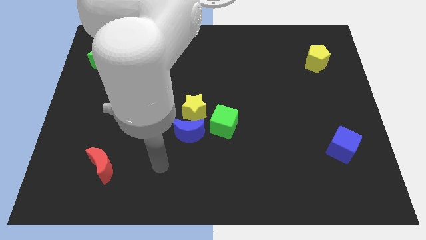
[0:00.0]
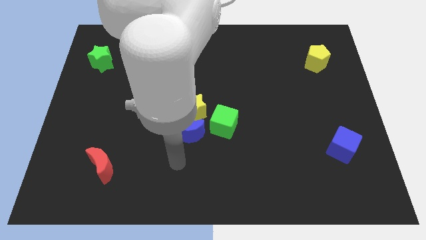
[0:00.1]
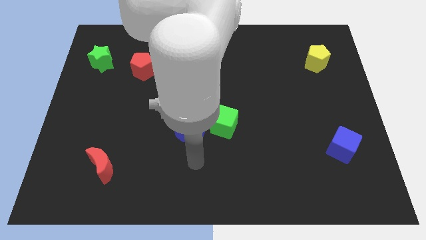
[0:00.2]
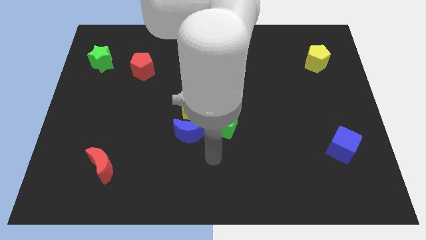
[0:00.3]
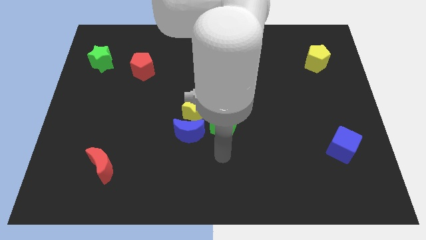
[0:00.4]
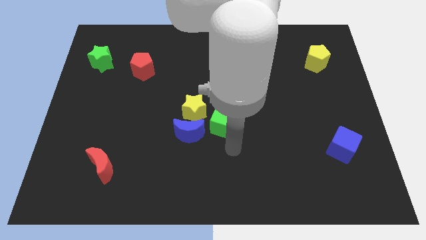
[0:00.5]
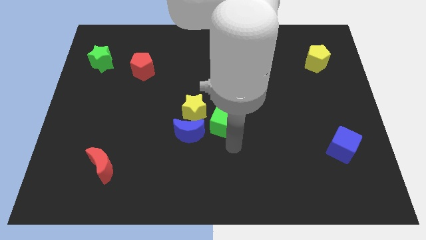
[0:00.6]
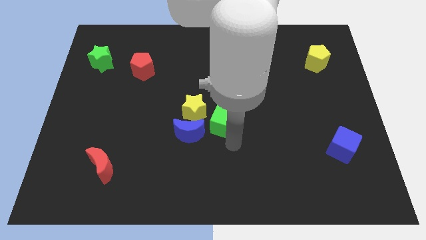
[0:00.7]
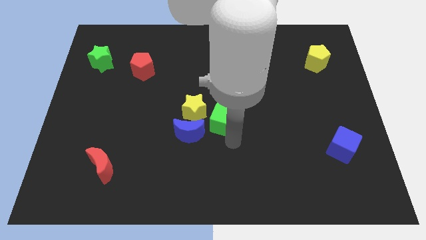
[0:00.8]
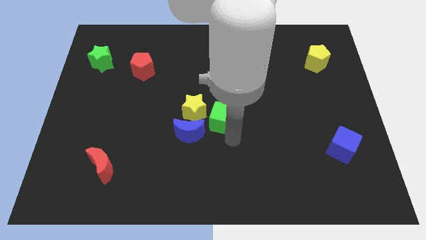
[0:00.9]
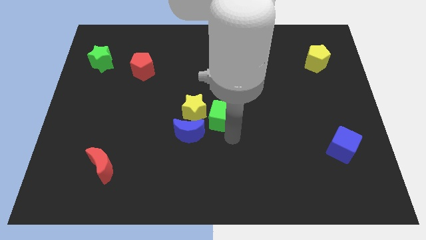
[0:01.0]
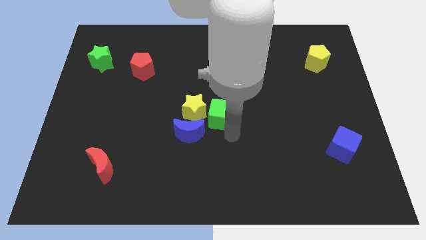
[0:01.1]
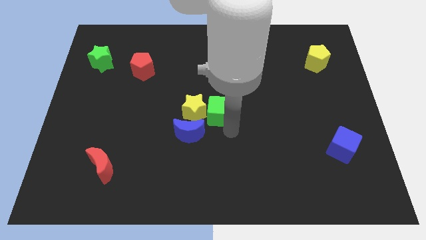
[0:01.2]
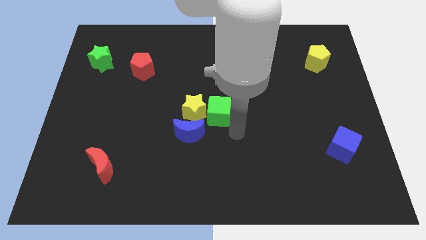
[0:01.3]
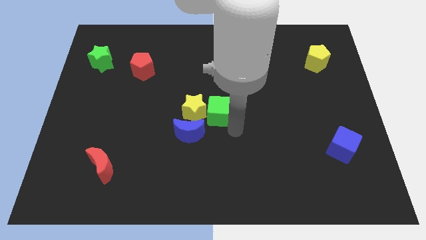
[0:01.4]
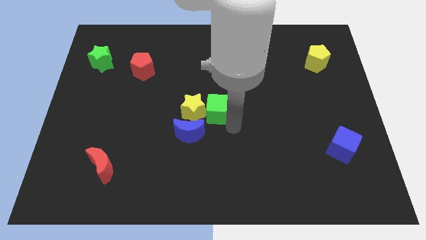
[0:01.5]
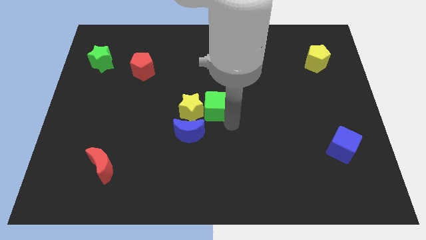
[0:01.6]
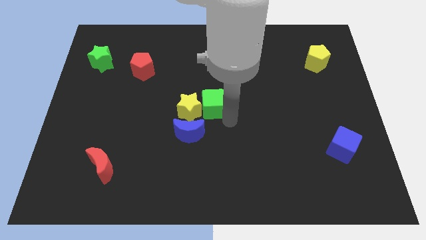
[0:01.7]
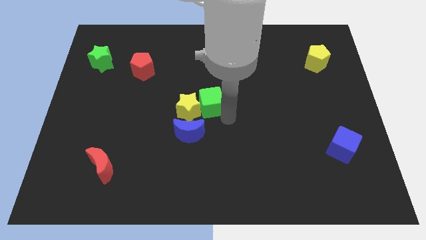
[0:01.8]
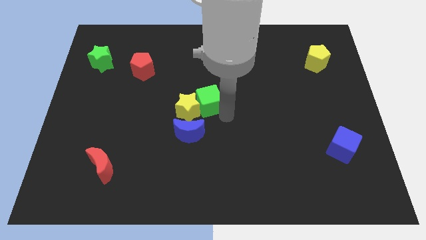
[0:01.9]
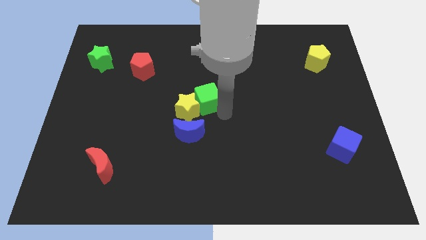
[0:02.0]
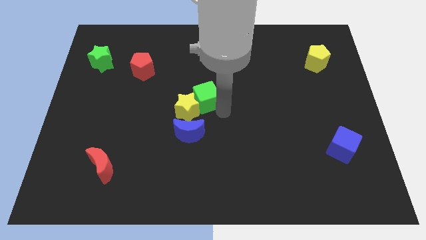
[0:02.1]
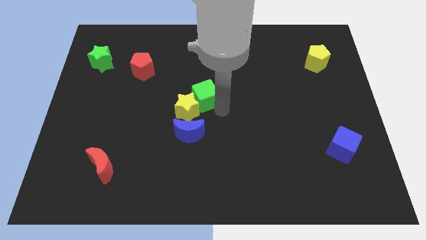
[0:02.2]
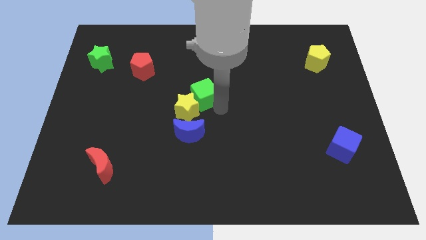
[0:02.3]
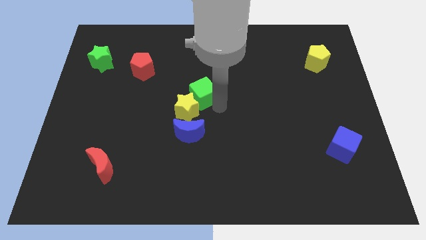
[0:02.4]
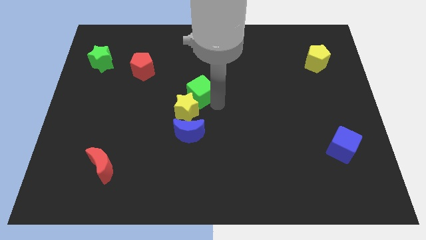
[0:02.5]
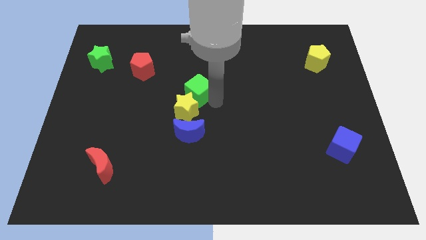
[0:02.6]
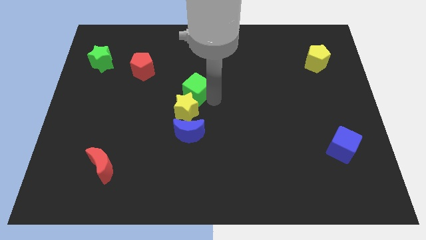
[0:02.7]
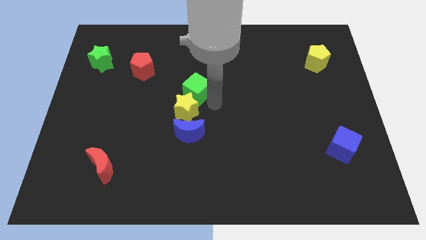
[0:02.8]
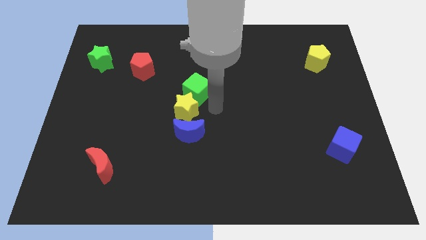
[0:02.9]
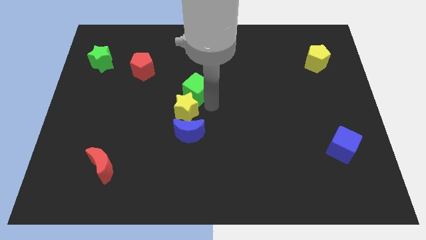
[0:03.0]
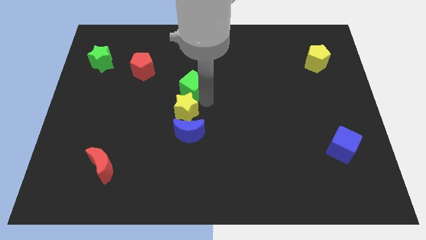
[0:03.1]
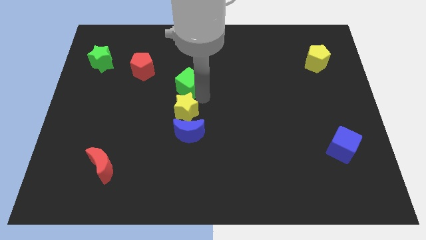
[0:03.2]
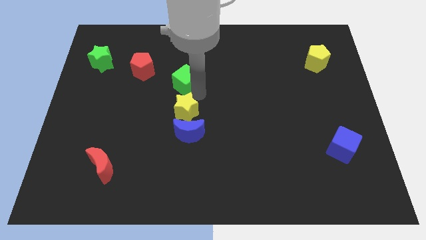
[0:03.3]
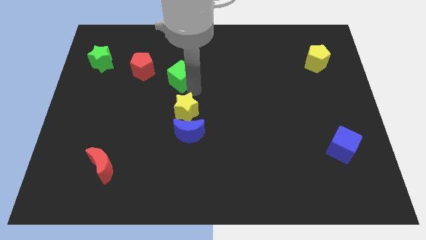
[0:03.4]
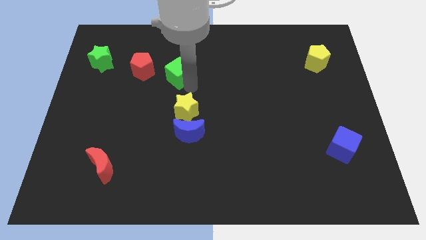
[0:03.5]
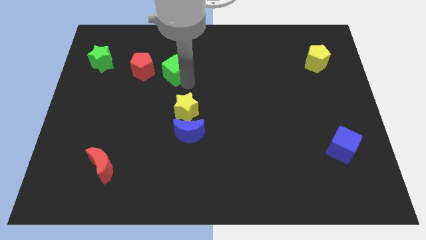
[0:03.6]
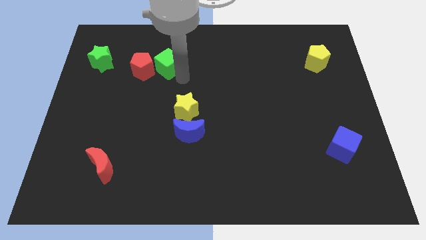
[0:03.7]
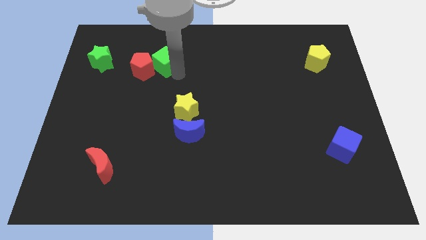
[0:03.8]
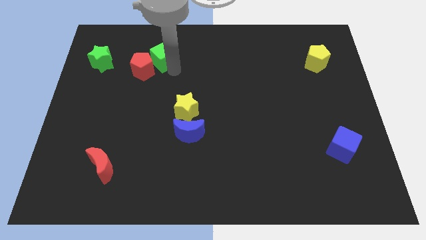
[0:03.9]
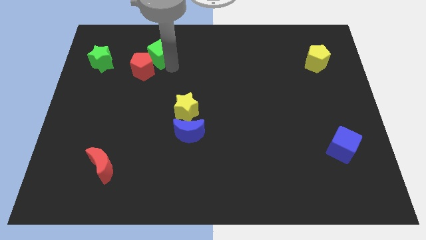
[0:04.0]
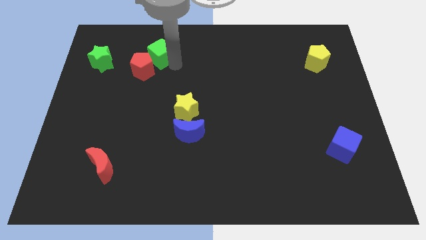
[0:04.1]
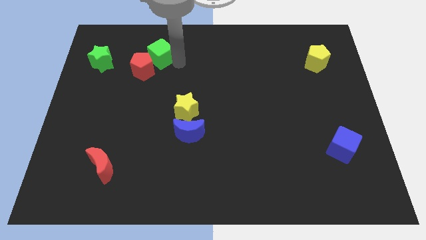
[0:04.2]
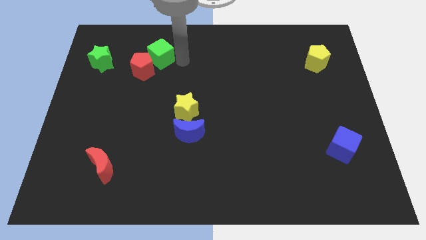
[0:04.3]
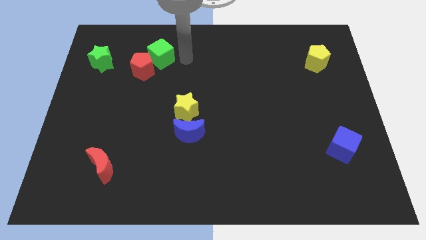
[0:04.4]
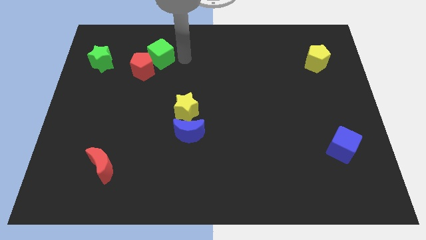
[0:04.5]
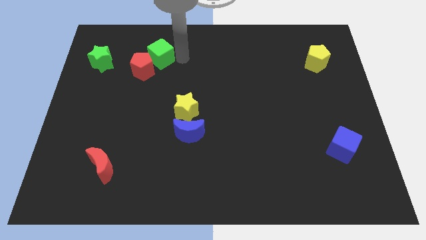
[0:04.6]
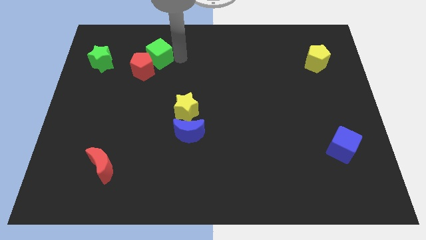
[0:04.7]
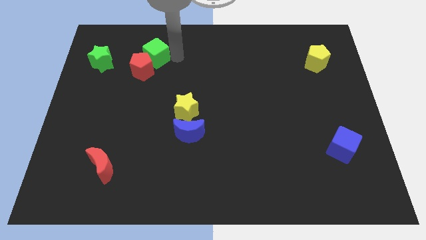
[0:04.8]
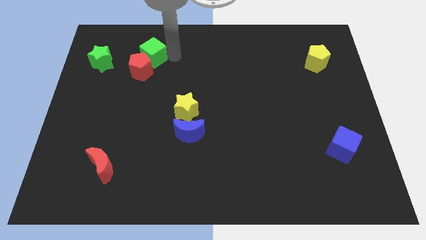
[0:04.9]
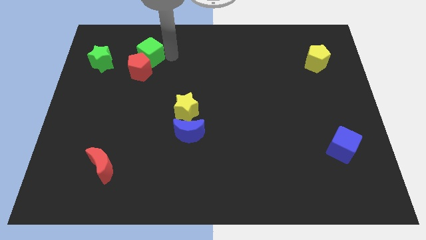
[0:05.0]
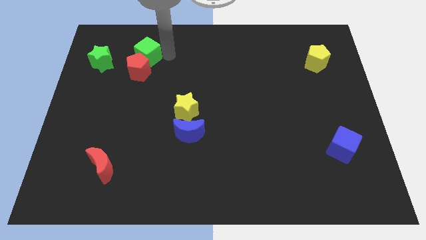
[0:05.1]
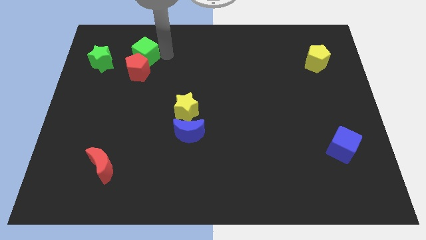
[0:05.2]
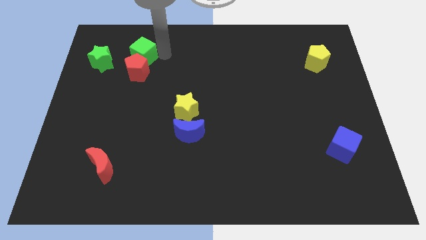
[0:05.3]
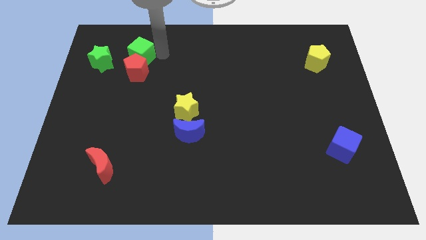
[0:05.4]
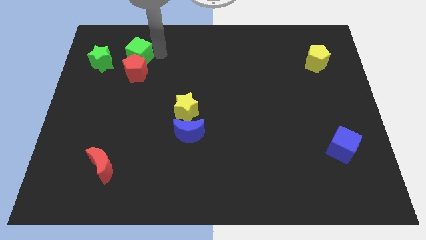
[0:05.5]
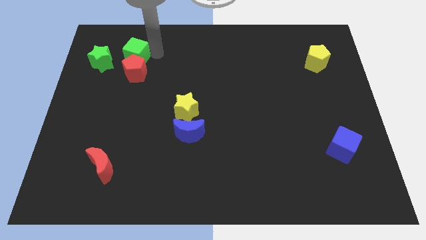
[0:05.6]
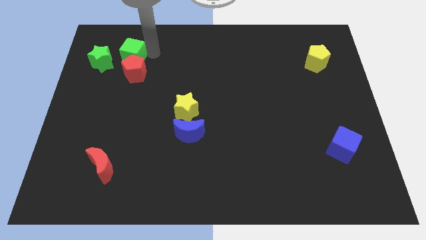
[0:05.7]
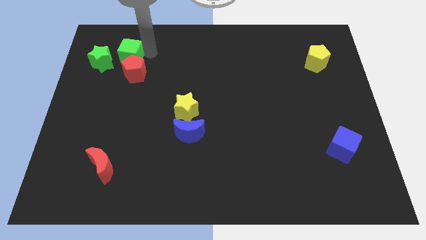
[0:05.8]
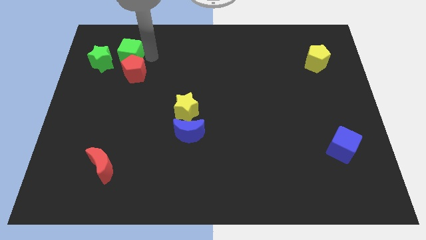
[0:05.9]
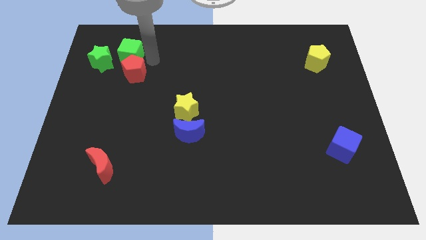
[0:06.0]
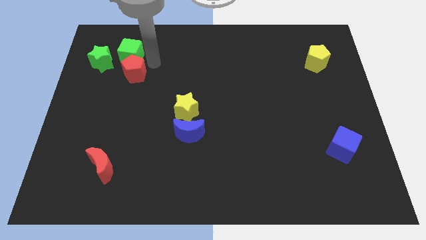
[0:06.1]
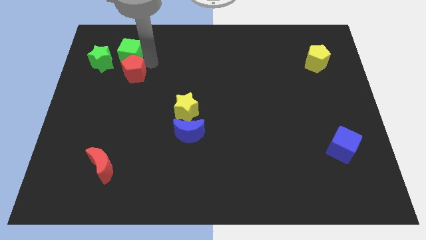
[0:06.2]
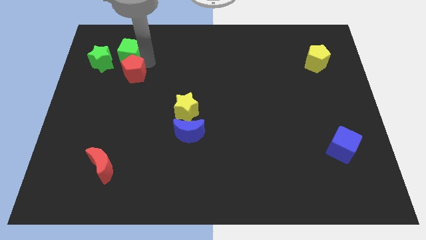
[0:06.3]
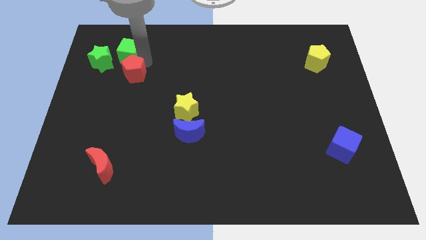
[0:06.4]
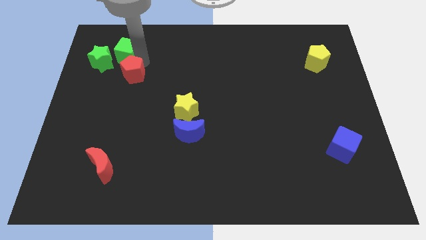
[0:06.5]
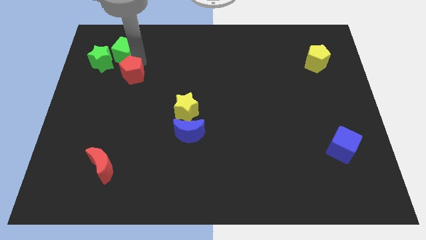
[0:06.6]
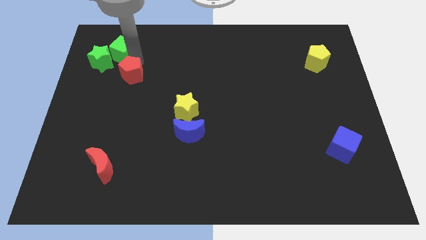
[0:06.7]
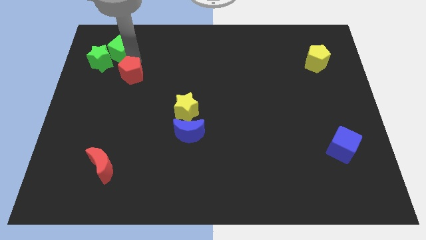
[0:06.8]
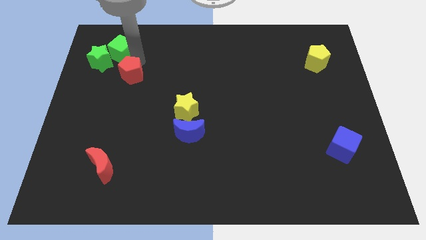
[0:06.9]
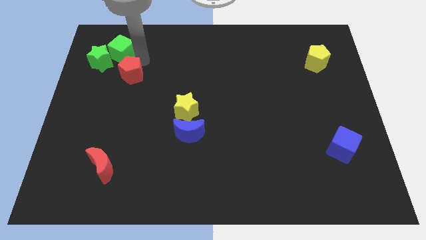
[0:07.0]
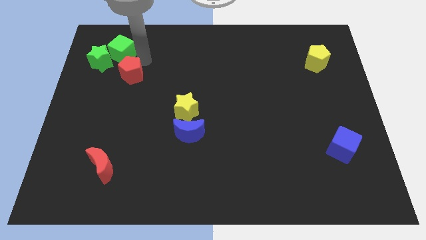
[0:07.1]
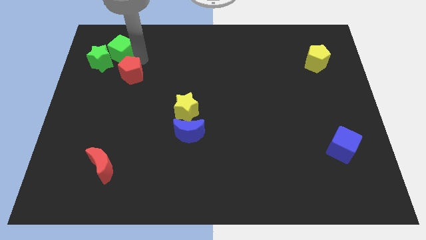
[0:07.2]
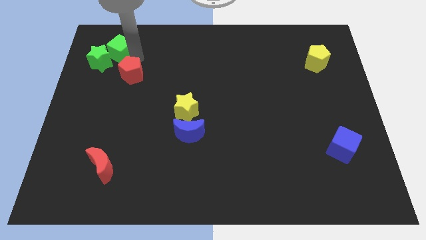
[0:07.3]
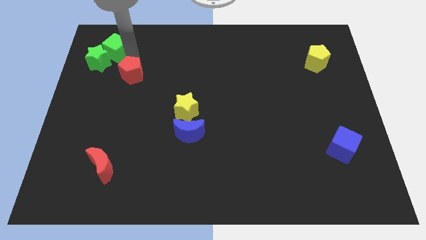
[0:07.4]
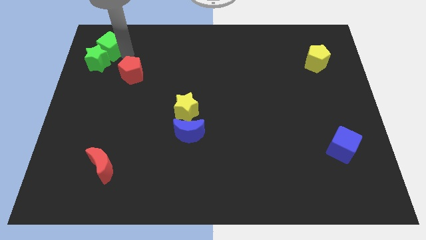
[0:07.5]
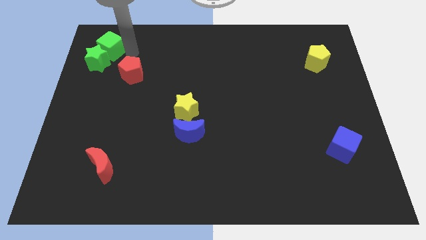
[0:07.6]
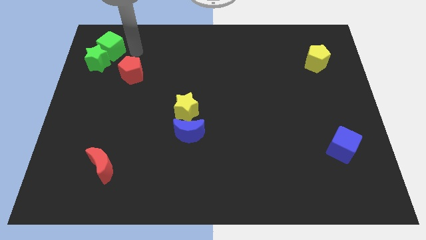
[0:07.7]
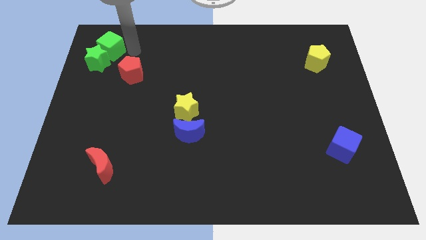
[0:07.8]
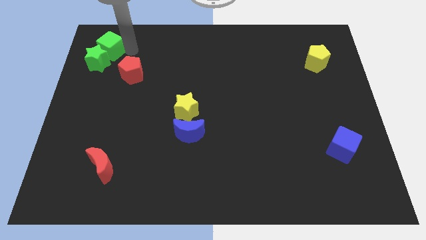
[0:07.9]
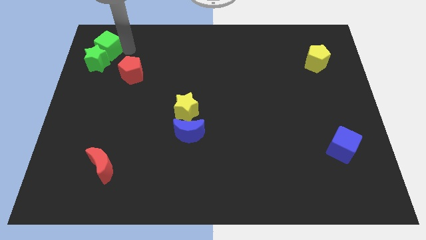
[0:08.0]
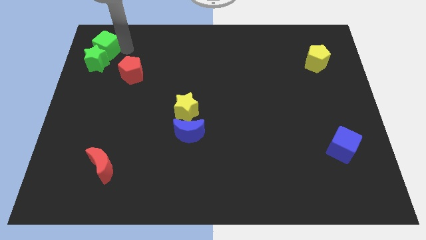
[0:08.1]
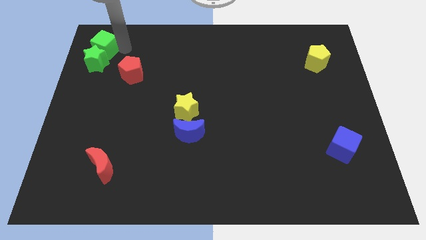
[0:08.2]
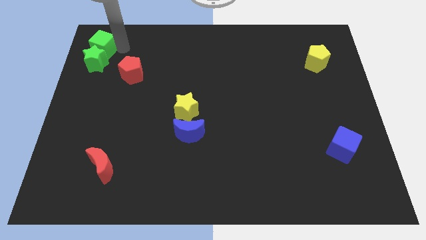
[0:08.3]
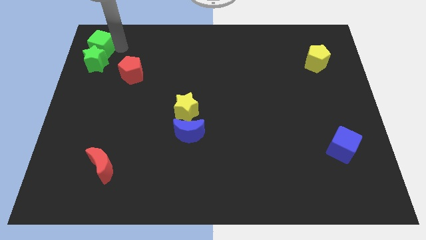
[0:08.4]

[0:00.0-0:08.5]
move the green cube to the top left corner

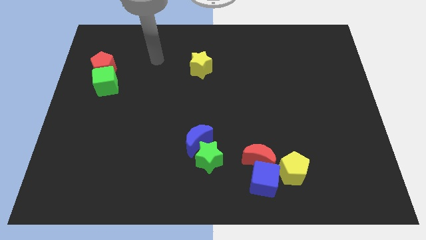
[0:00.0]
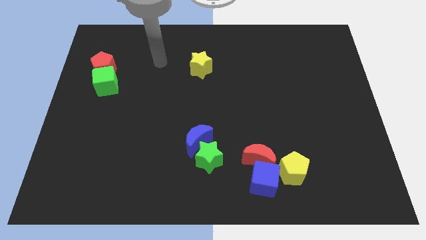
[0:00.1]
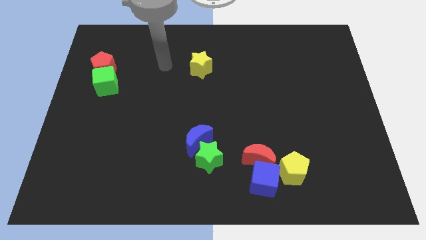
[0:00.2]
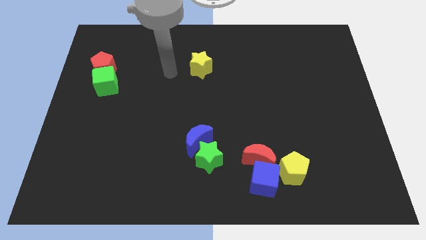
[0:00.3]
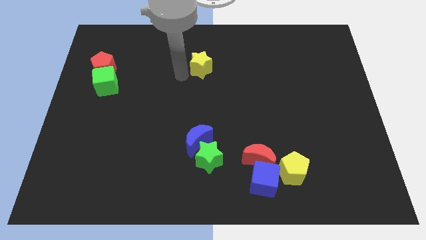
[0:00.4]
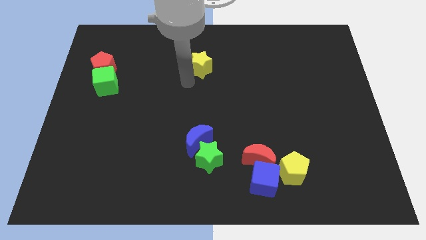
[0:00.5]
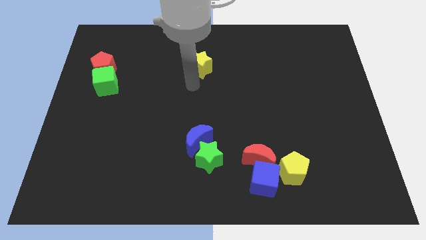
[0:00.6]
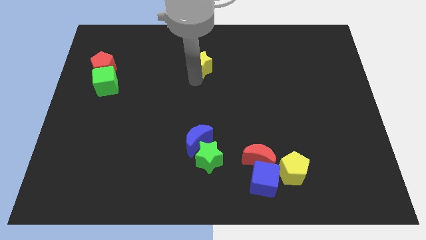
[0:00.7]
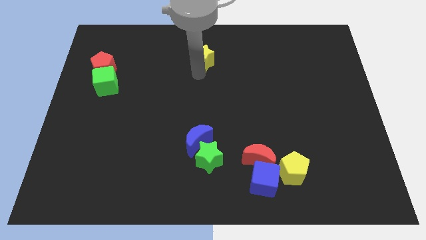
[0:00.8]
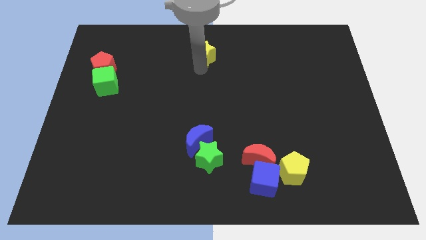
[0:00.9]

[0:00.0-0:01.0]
put the yellow star to the towards your base
